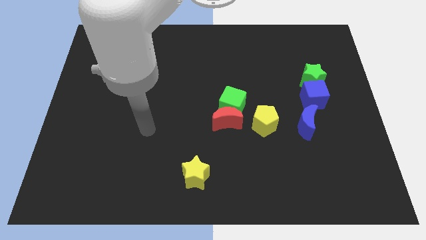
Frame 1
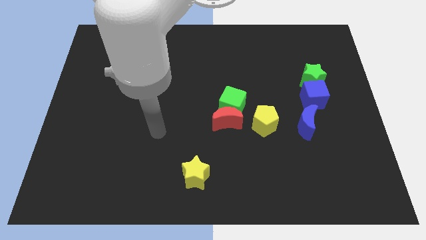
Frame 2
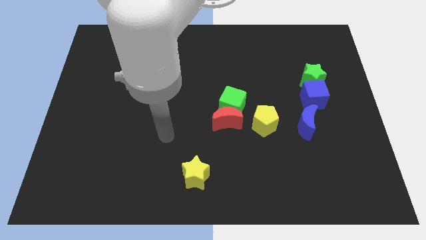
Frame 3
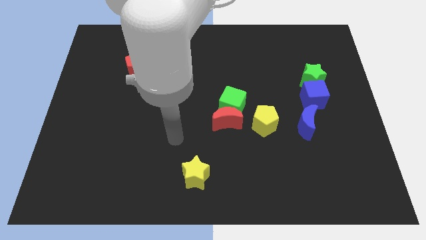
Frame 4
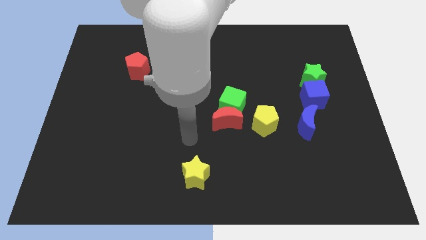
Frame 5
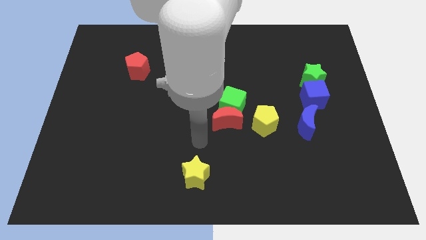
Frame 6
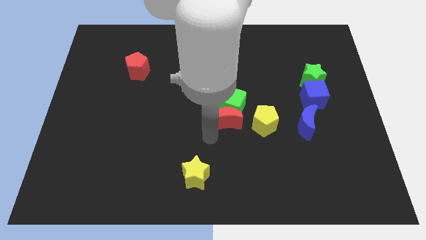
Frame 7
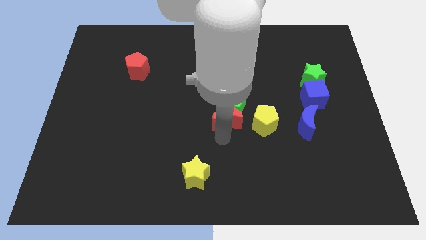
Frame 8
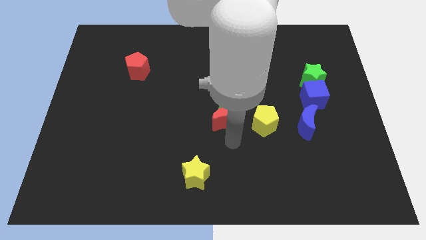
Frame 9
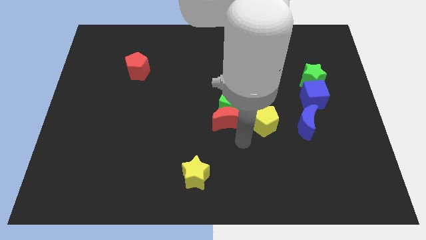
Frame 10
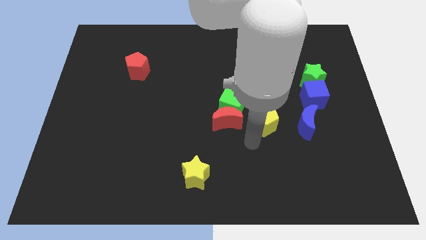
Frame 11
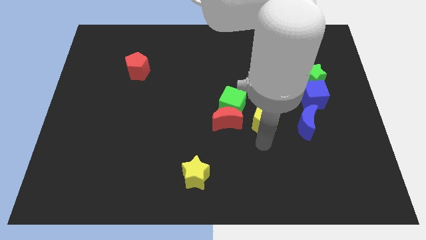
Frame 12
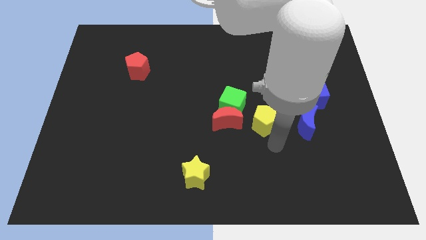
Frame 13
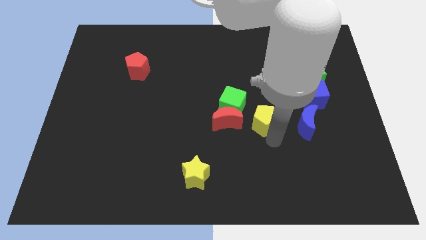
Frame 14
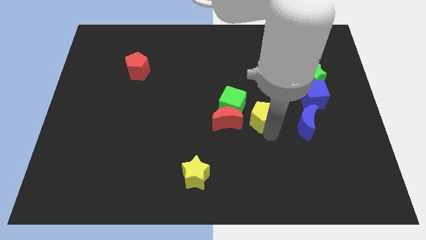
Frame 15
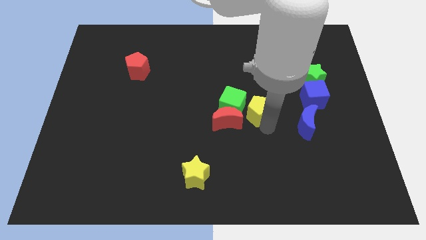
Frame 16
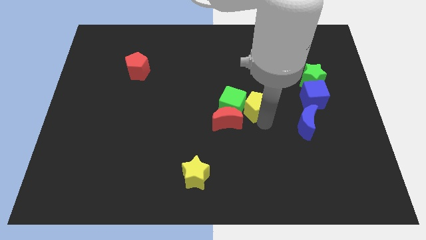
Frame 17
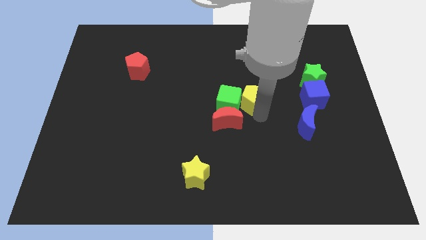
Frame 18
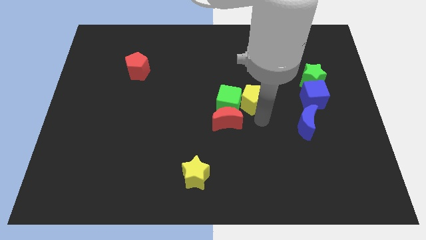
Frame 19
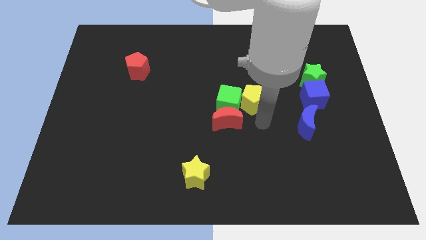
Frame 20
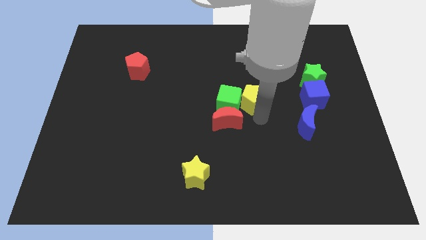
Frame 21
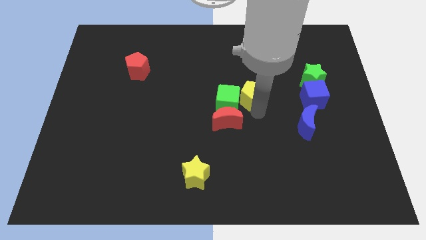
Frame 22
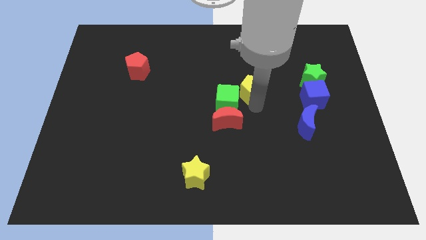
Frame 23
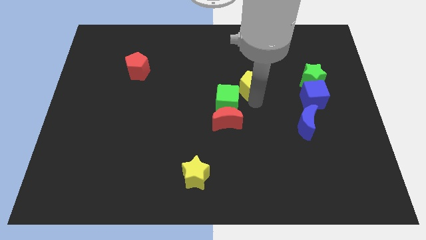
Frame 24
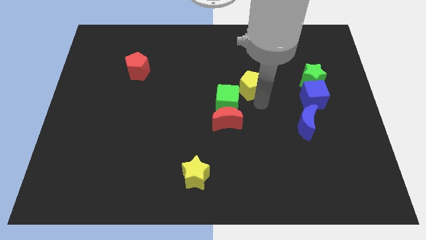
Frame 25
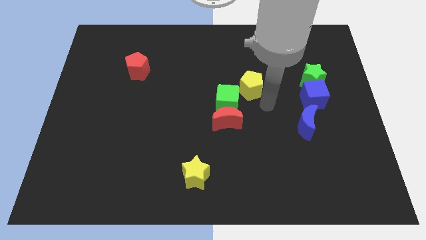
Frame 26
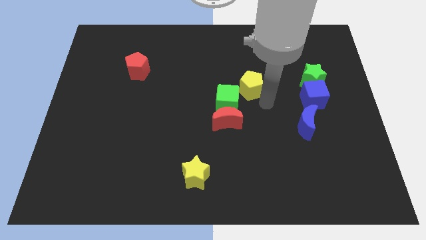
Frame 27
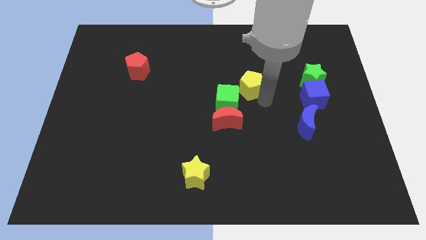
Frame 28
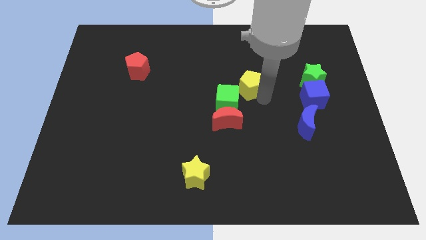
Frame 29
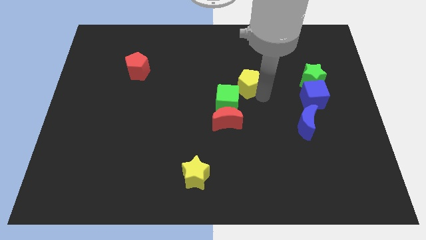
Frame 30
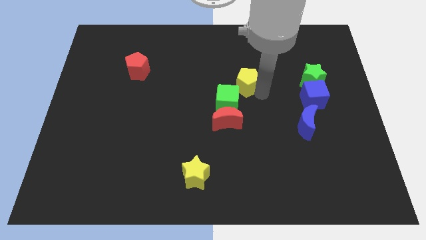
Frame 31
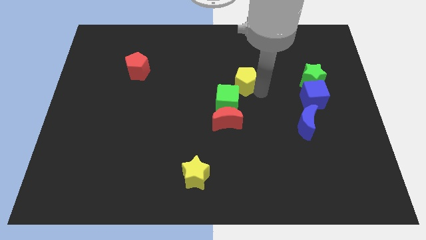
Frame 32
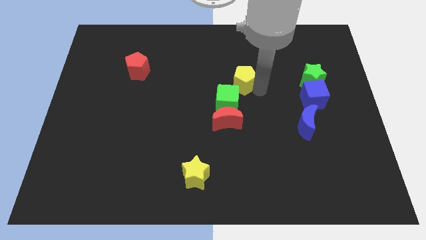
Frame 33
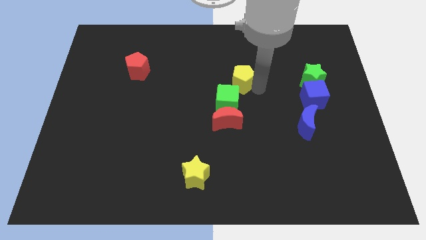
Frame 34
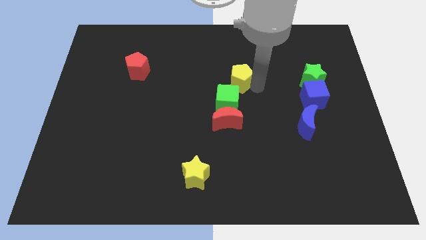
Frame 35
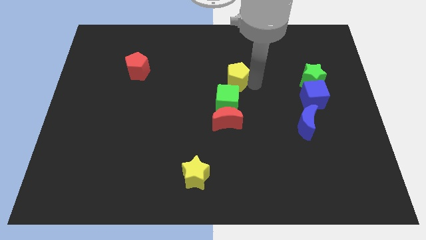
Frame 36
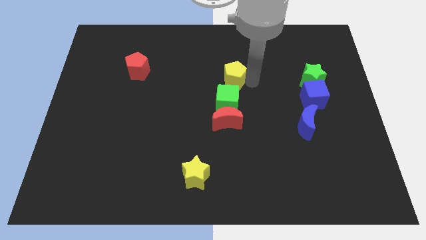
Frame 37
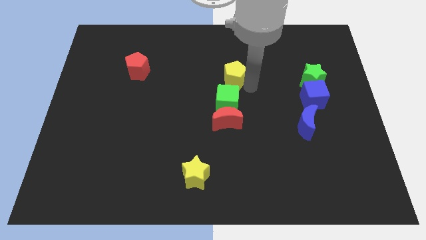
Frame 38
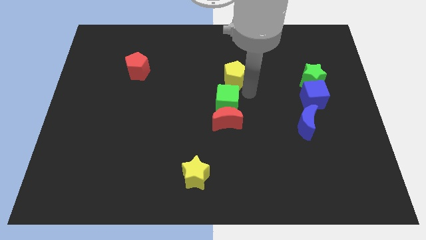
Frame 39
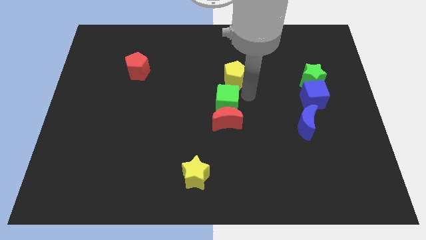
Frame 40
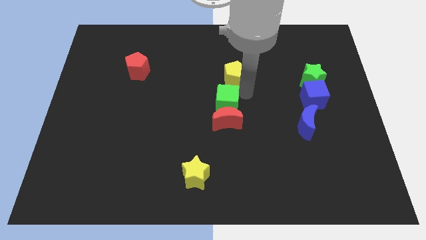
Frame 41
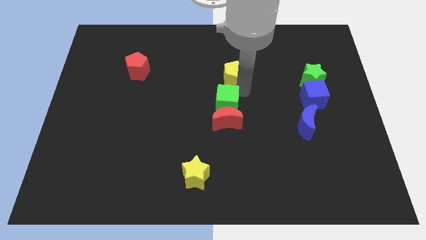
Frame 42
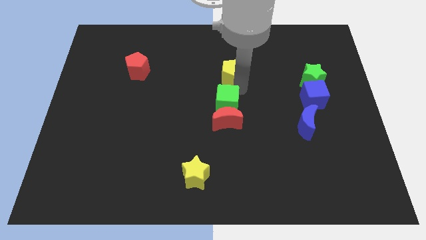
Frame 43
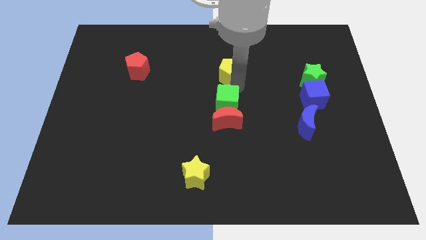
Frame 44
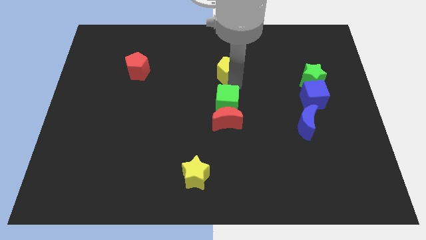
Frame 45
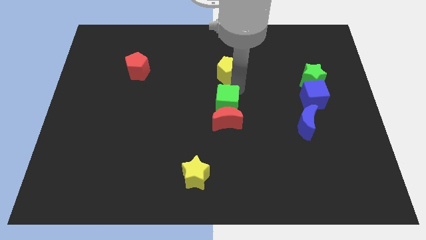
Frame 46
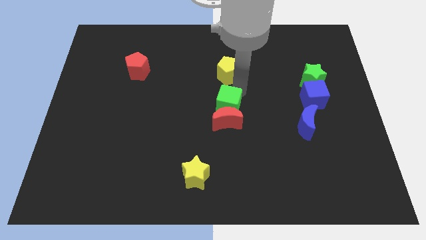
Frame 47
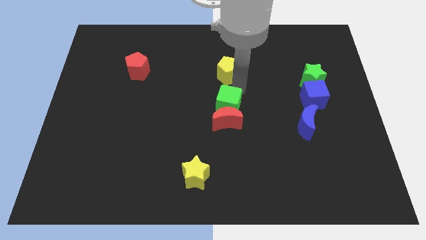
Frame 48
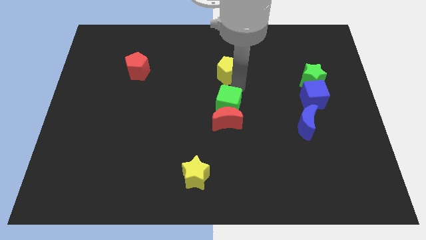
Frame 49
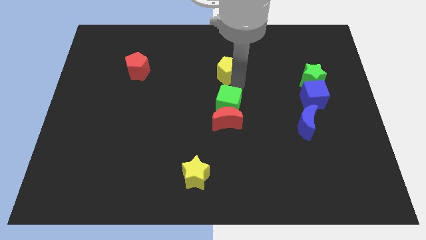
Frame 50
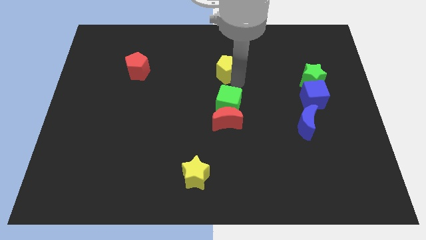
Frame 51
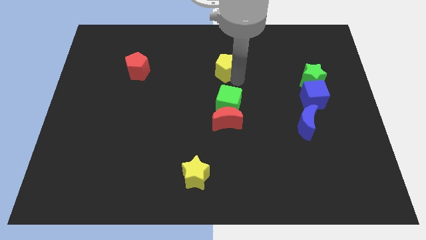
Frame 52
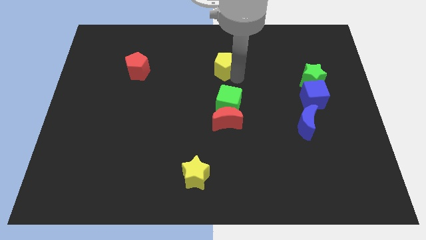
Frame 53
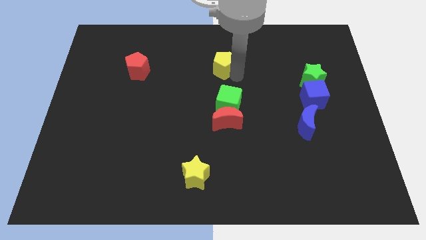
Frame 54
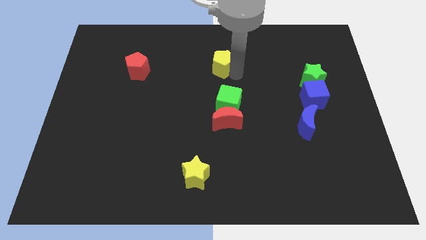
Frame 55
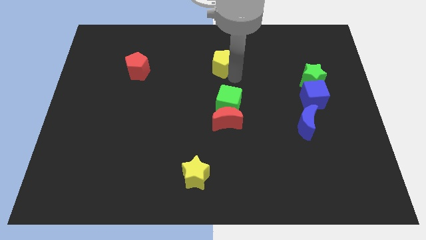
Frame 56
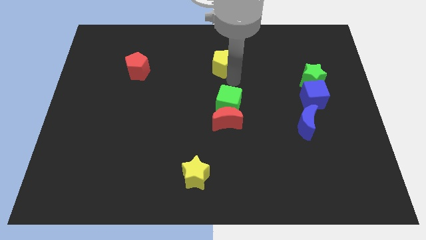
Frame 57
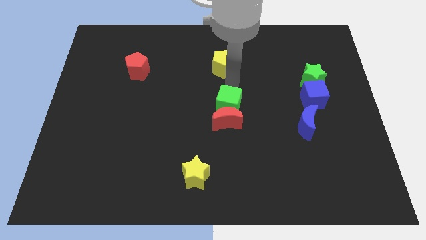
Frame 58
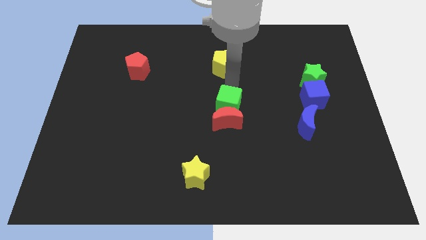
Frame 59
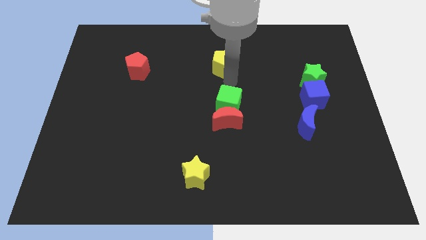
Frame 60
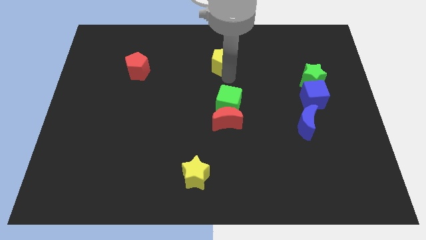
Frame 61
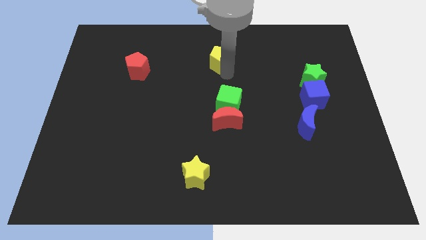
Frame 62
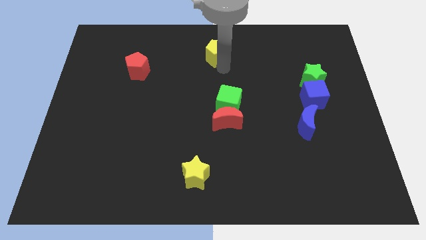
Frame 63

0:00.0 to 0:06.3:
push the yellow pentagon to the top

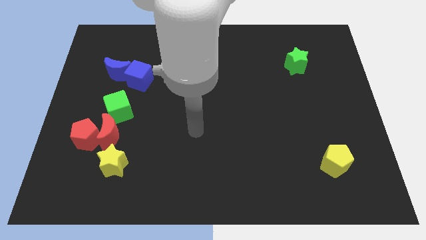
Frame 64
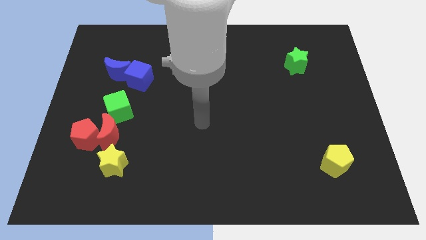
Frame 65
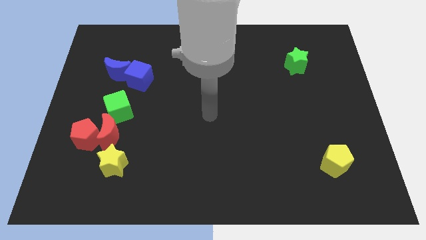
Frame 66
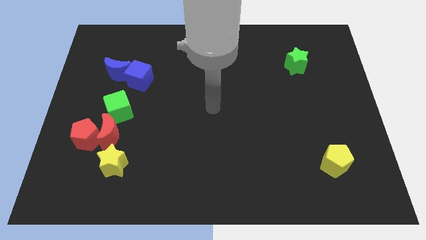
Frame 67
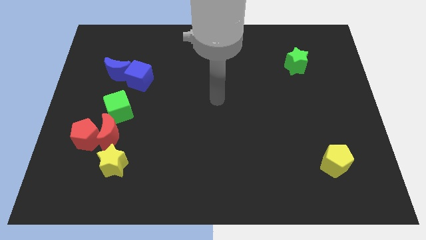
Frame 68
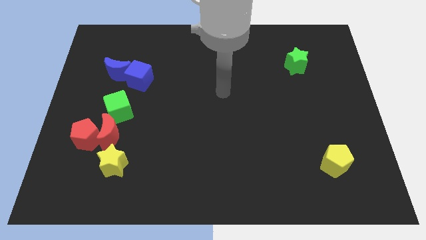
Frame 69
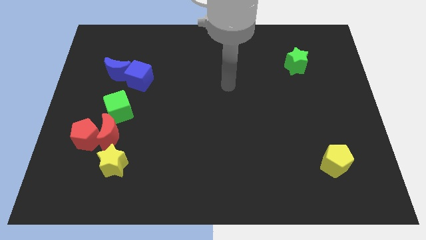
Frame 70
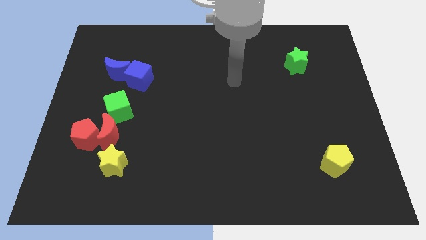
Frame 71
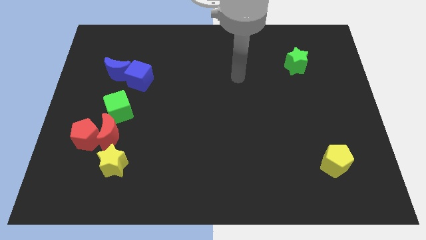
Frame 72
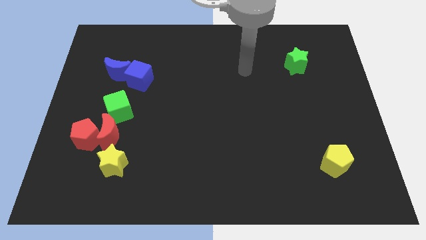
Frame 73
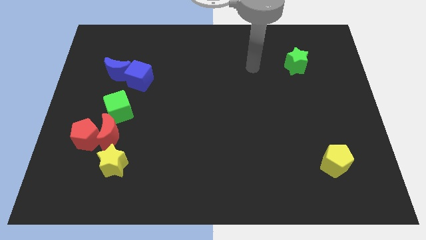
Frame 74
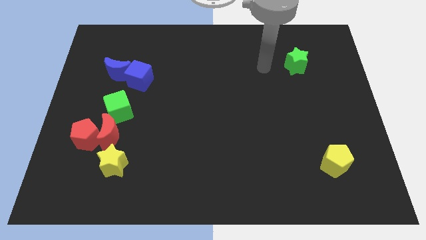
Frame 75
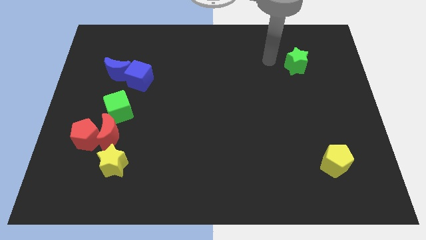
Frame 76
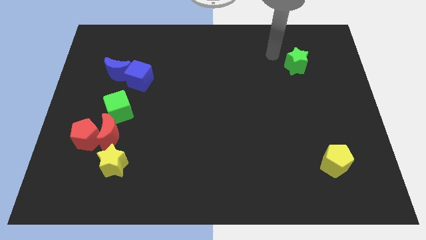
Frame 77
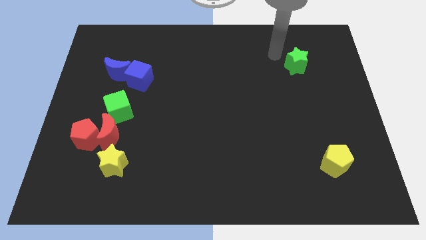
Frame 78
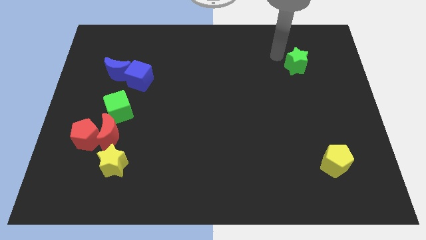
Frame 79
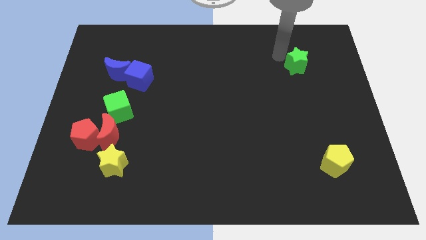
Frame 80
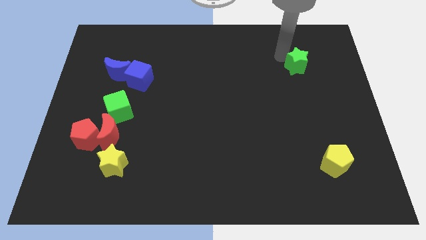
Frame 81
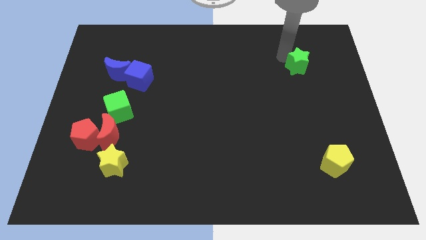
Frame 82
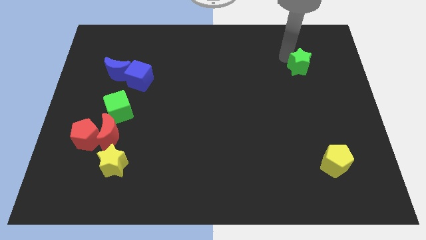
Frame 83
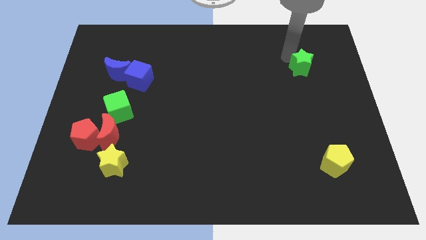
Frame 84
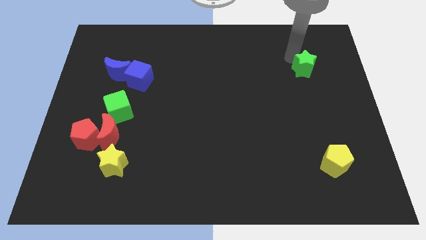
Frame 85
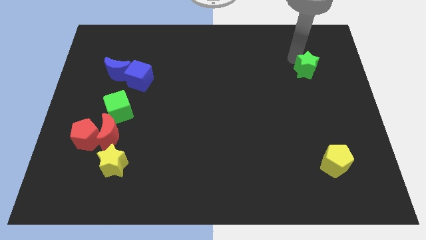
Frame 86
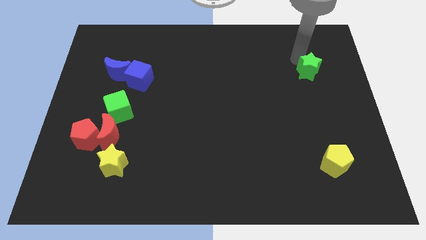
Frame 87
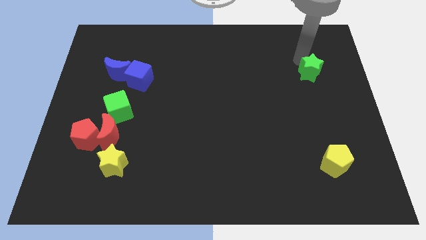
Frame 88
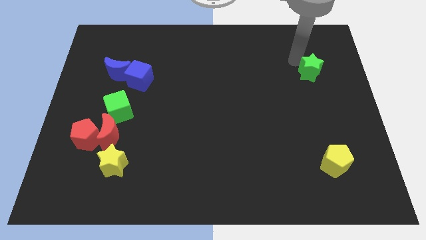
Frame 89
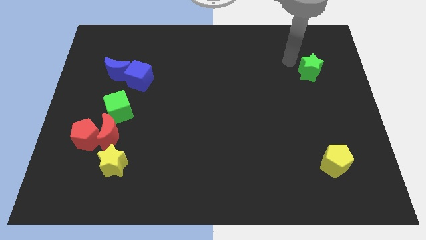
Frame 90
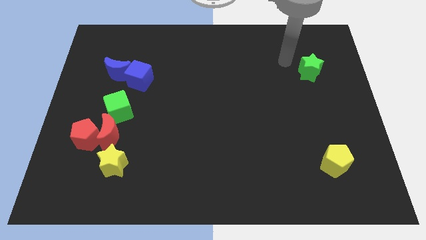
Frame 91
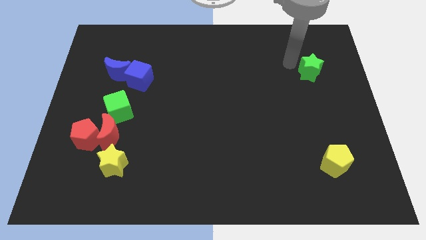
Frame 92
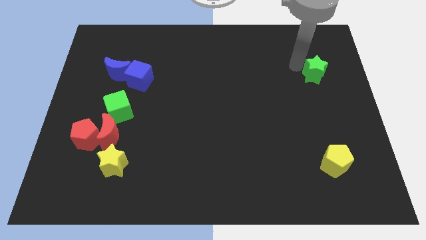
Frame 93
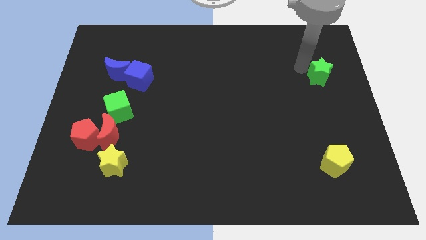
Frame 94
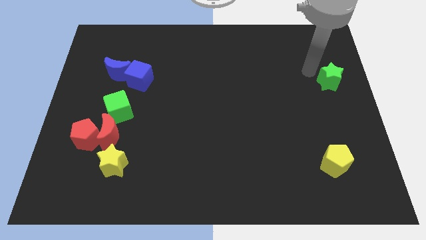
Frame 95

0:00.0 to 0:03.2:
move the green star to the right side
